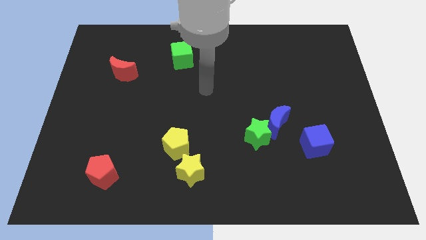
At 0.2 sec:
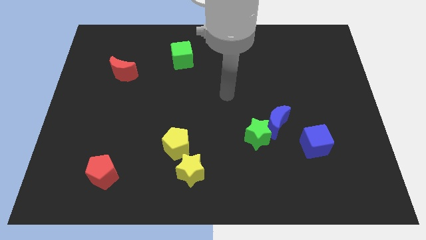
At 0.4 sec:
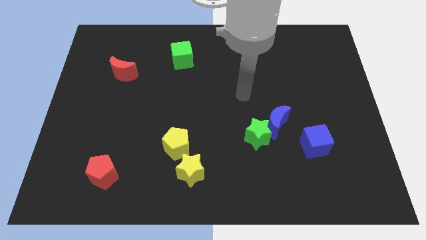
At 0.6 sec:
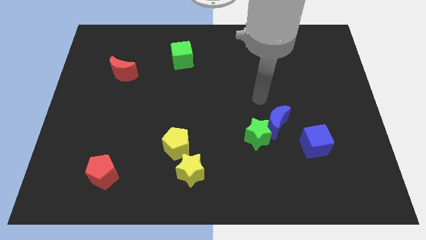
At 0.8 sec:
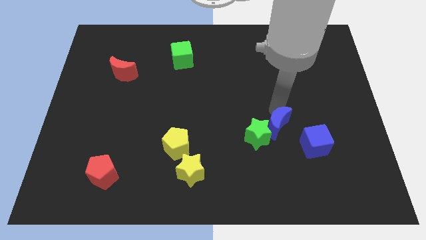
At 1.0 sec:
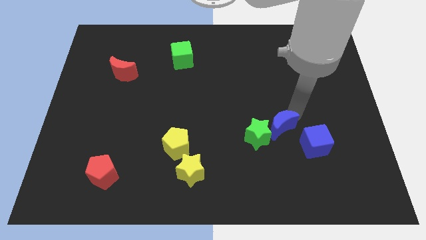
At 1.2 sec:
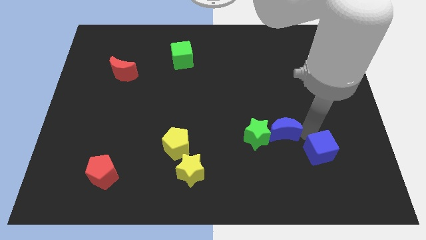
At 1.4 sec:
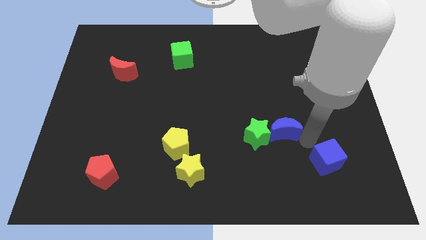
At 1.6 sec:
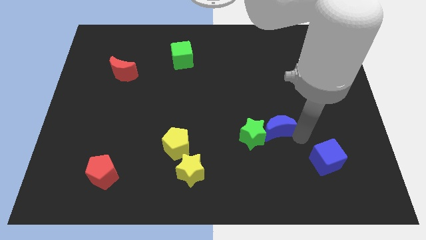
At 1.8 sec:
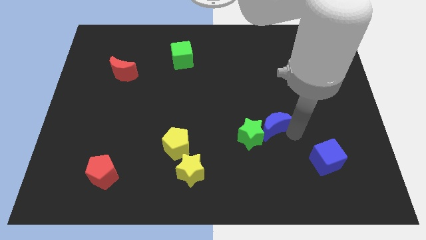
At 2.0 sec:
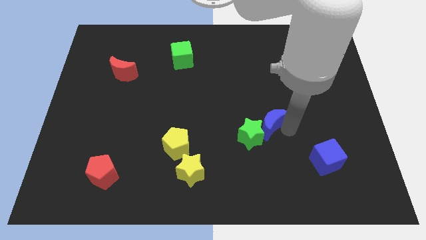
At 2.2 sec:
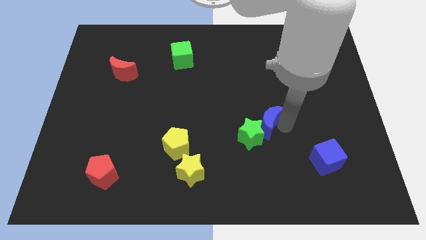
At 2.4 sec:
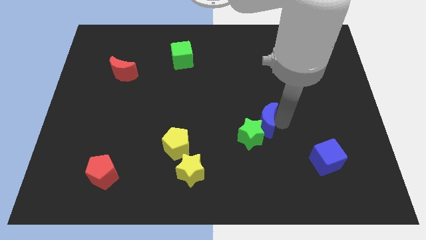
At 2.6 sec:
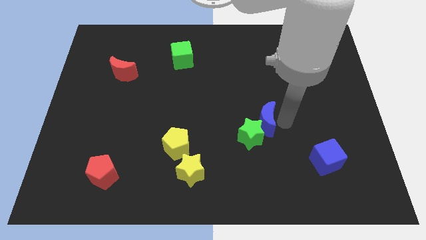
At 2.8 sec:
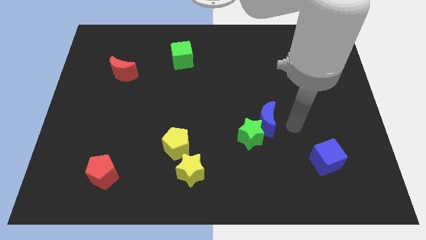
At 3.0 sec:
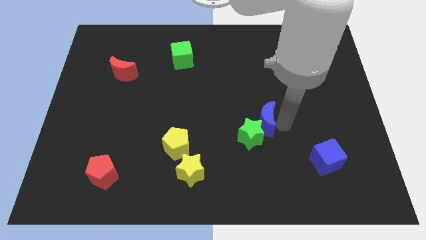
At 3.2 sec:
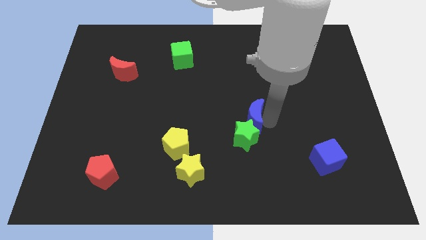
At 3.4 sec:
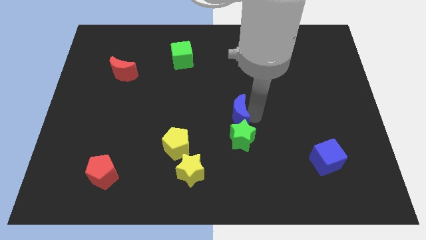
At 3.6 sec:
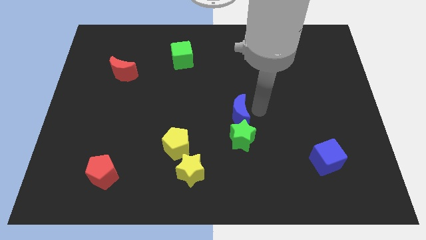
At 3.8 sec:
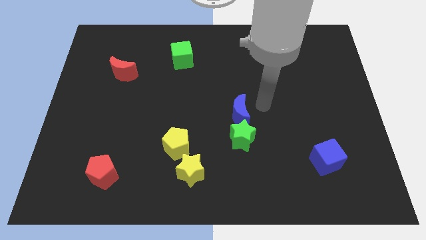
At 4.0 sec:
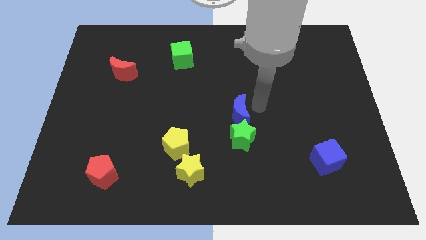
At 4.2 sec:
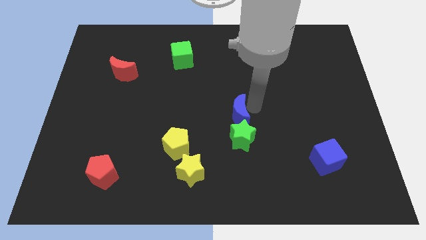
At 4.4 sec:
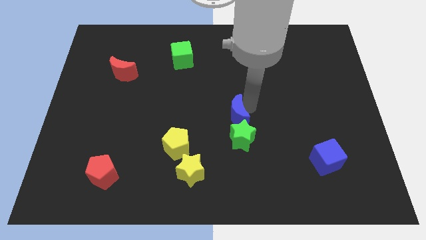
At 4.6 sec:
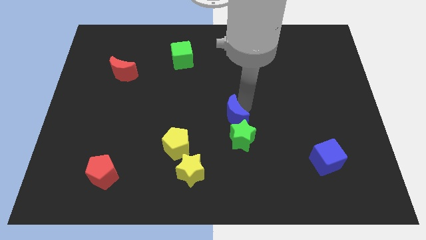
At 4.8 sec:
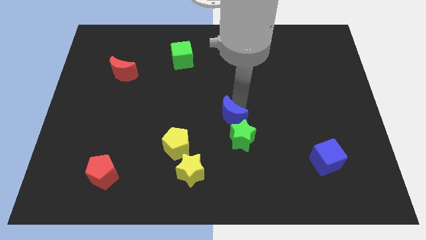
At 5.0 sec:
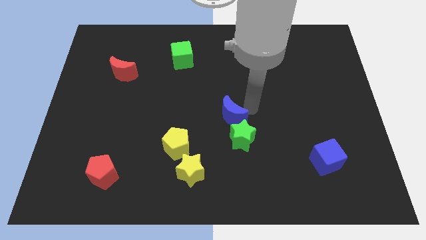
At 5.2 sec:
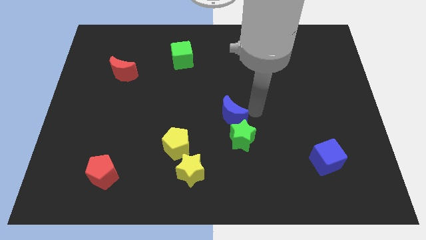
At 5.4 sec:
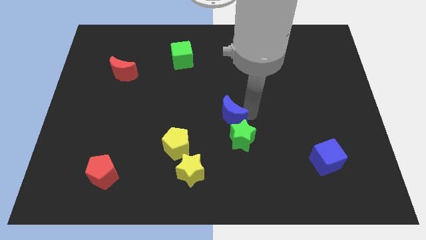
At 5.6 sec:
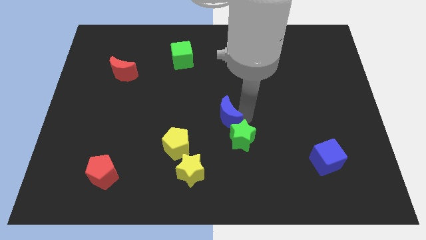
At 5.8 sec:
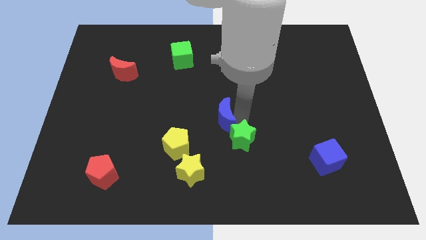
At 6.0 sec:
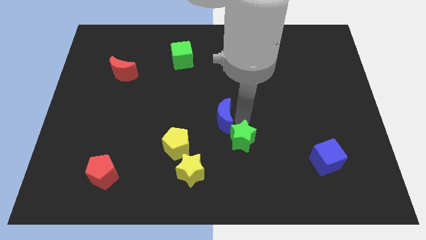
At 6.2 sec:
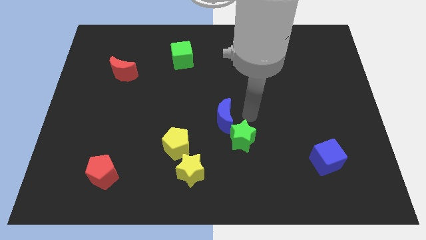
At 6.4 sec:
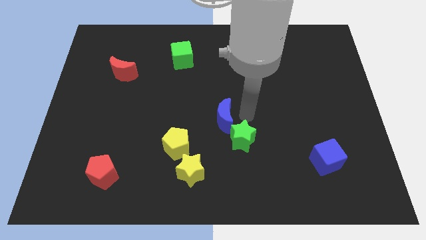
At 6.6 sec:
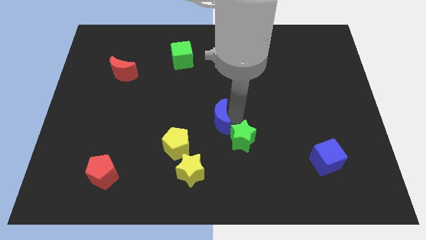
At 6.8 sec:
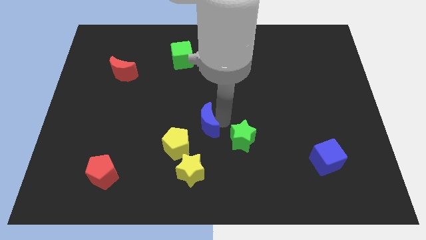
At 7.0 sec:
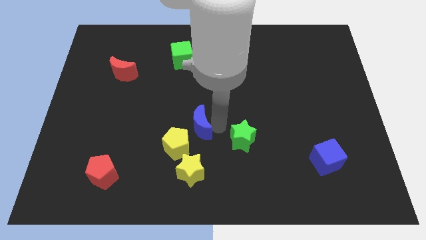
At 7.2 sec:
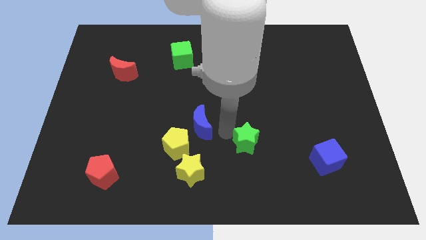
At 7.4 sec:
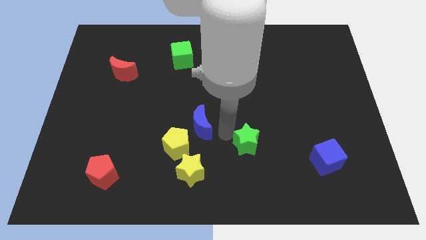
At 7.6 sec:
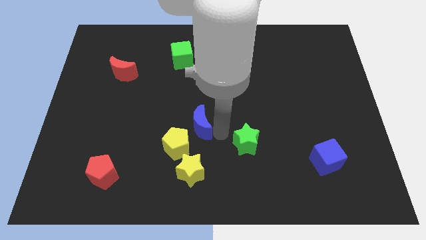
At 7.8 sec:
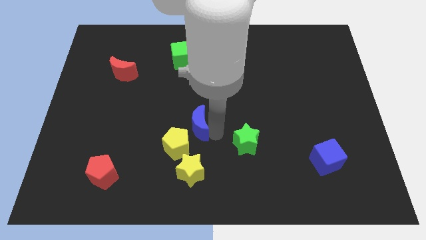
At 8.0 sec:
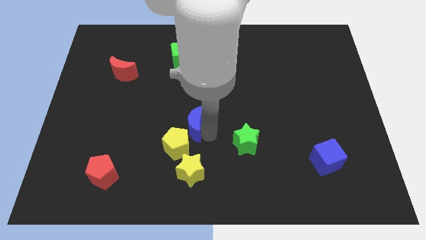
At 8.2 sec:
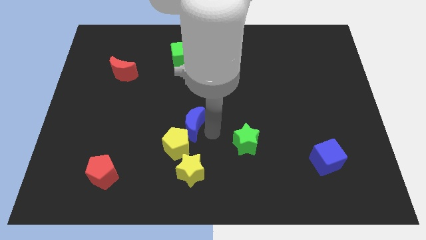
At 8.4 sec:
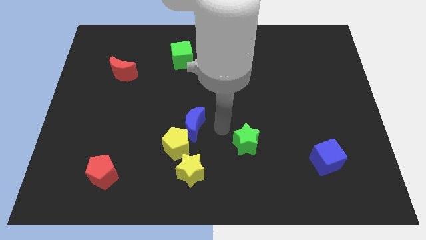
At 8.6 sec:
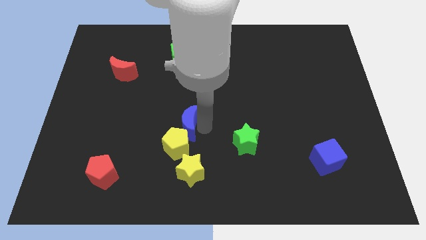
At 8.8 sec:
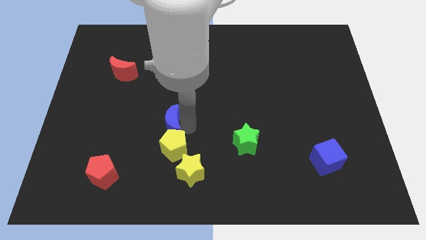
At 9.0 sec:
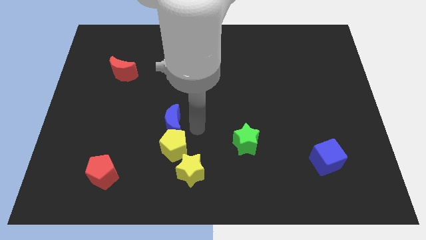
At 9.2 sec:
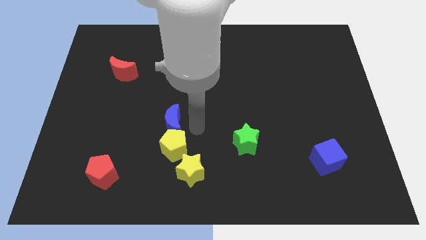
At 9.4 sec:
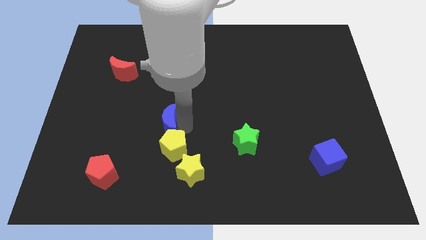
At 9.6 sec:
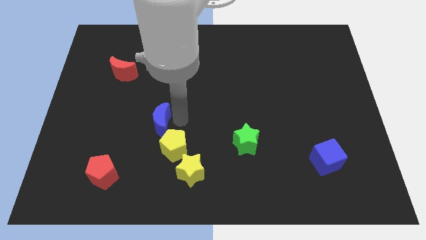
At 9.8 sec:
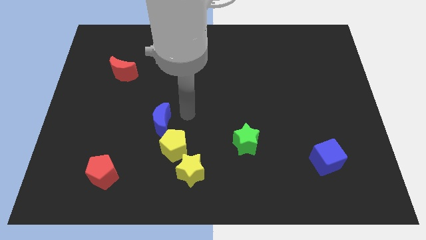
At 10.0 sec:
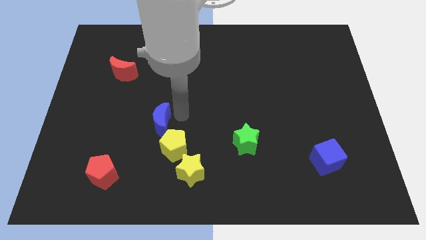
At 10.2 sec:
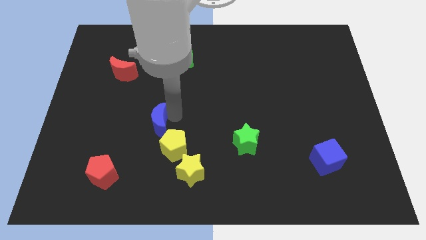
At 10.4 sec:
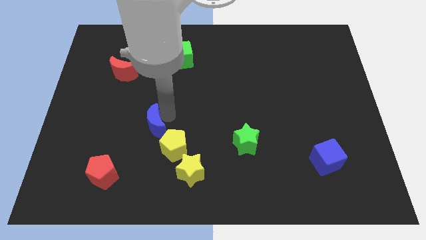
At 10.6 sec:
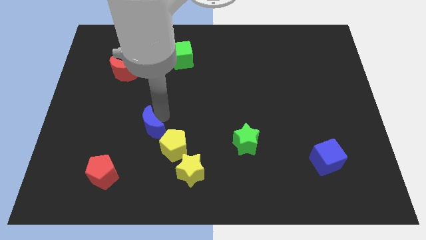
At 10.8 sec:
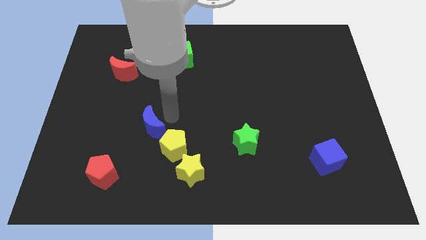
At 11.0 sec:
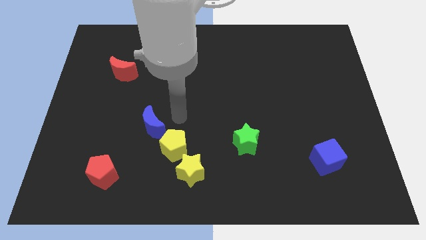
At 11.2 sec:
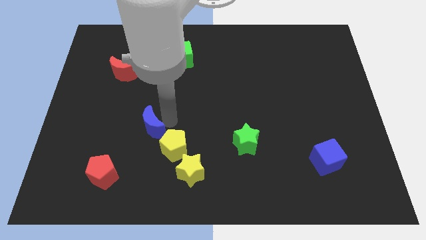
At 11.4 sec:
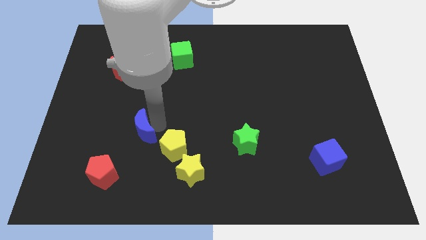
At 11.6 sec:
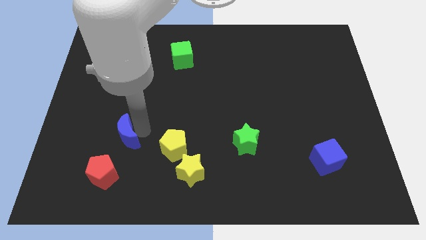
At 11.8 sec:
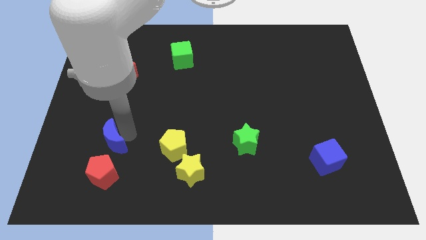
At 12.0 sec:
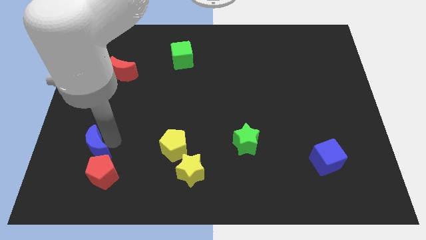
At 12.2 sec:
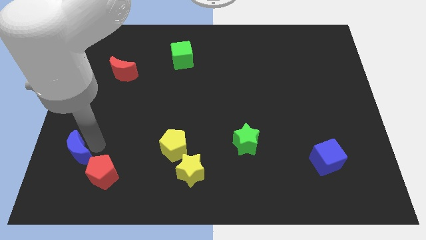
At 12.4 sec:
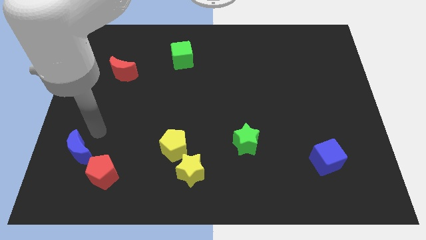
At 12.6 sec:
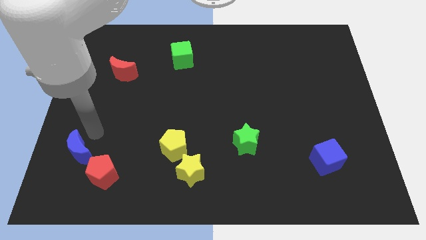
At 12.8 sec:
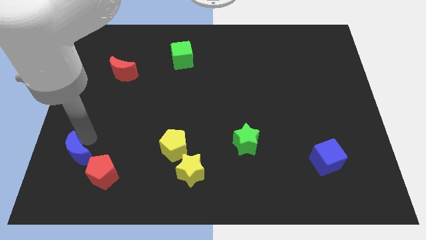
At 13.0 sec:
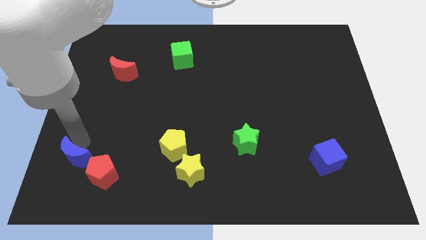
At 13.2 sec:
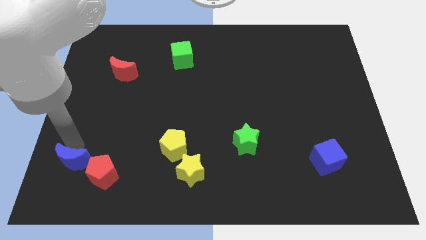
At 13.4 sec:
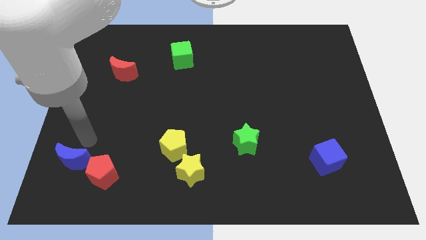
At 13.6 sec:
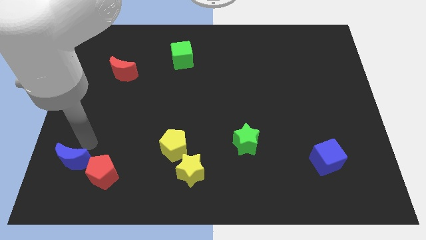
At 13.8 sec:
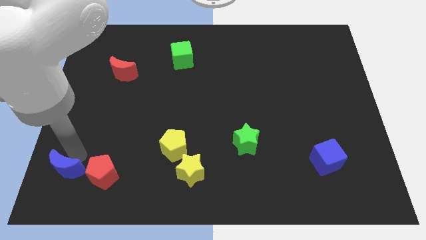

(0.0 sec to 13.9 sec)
move the blue moon to the bottom left of the board
